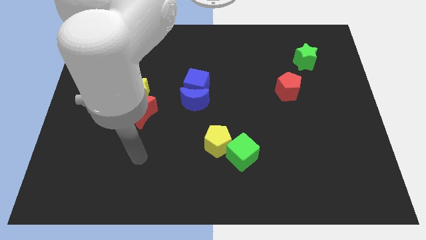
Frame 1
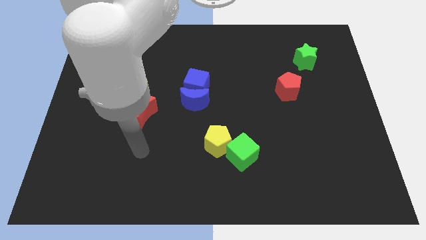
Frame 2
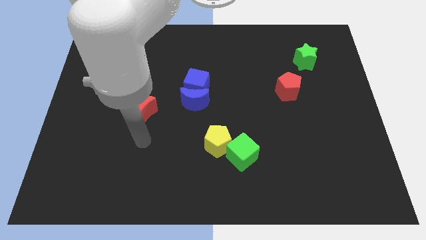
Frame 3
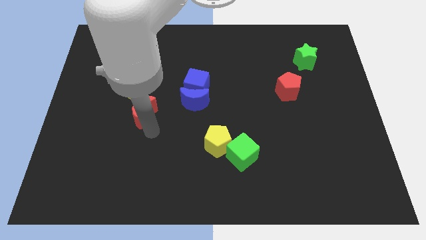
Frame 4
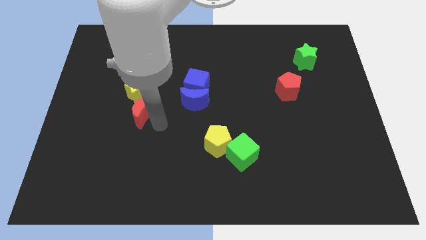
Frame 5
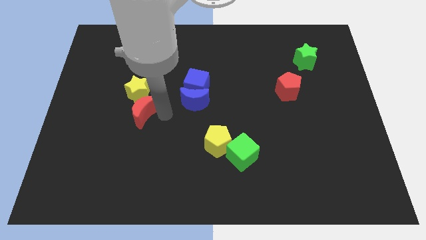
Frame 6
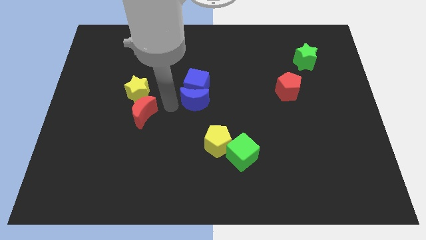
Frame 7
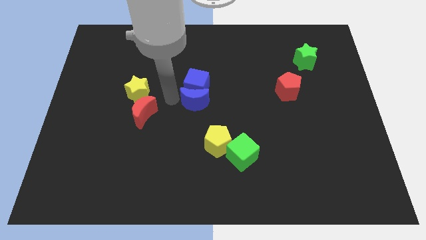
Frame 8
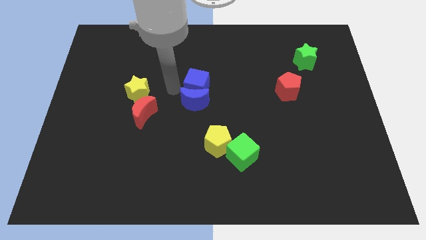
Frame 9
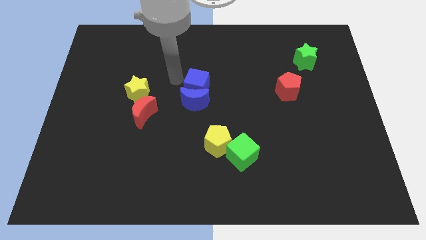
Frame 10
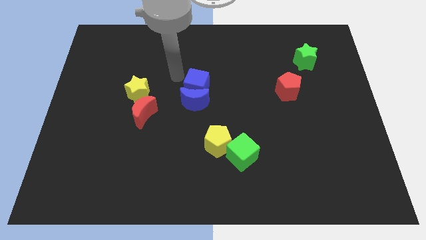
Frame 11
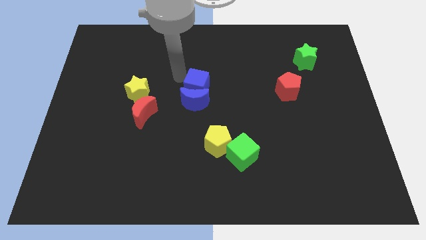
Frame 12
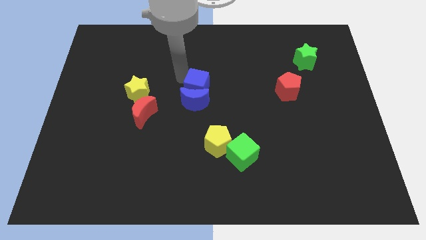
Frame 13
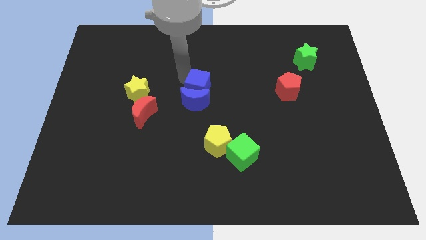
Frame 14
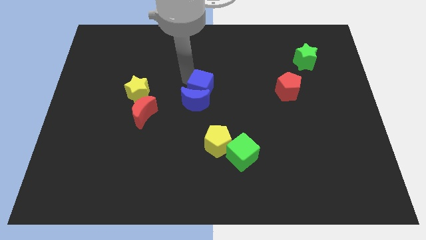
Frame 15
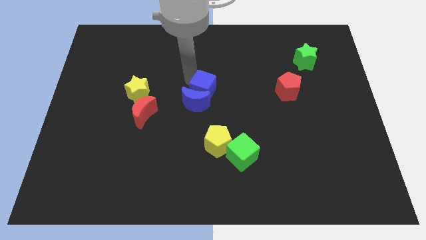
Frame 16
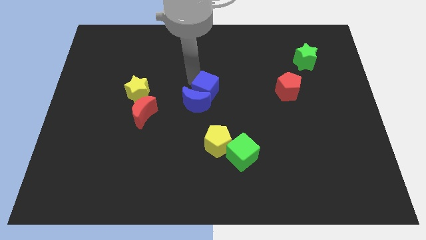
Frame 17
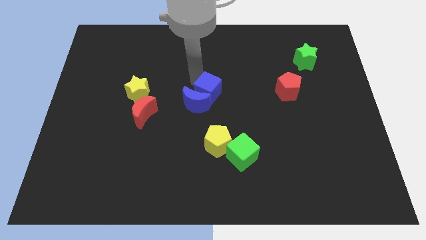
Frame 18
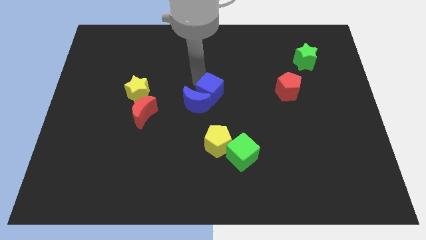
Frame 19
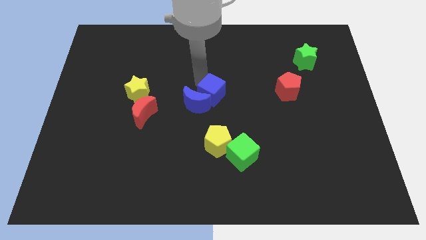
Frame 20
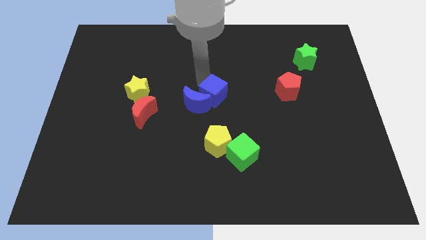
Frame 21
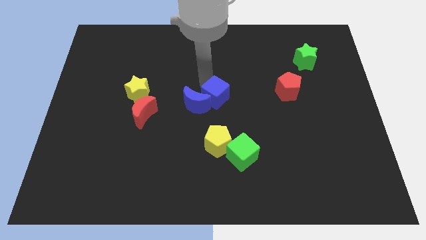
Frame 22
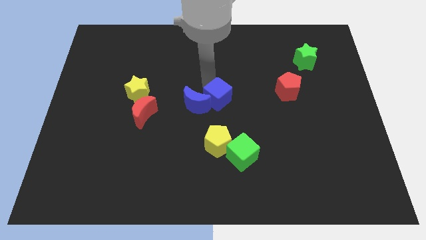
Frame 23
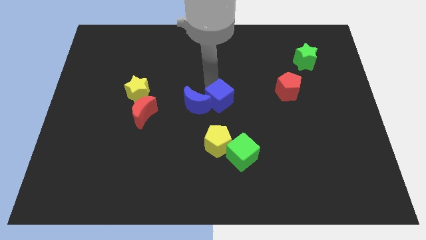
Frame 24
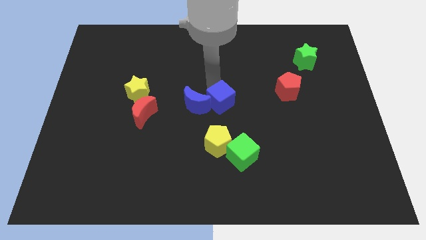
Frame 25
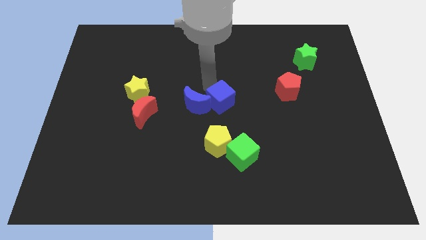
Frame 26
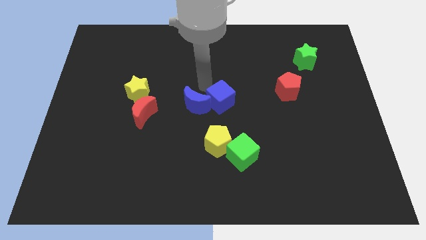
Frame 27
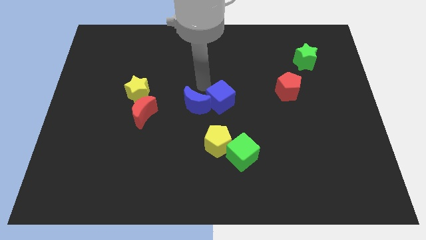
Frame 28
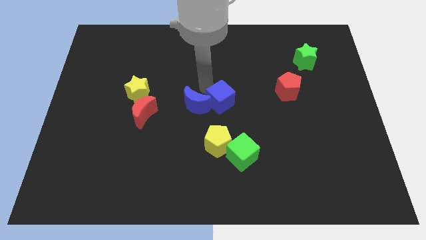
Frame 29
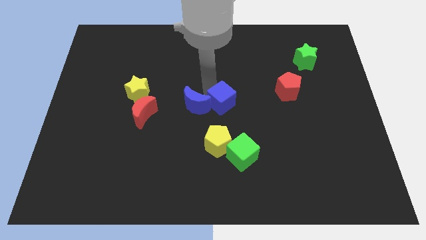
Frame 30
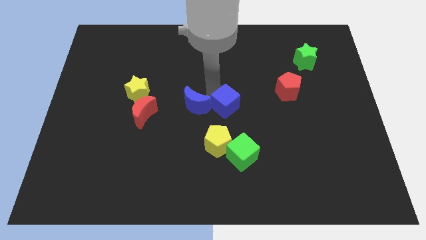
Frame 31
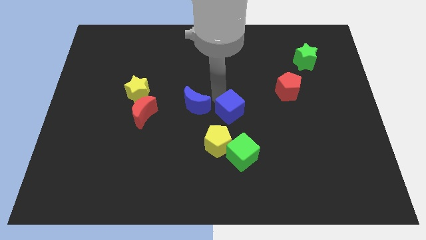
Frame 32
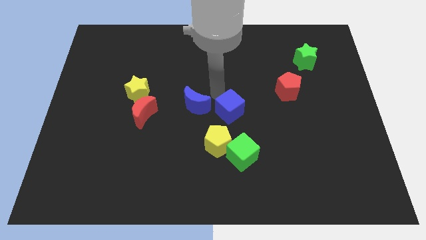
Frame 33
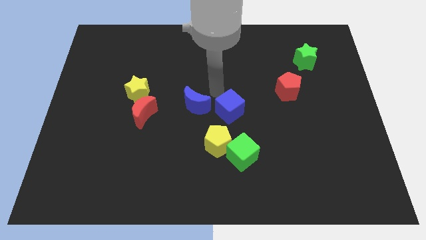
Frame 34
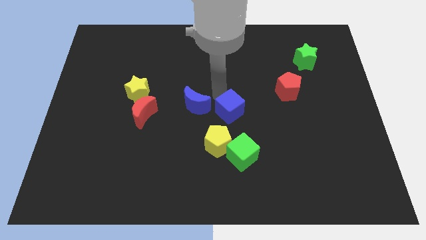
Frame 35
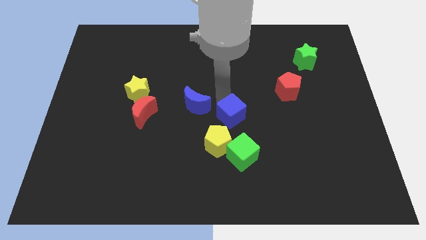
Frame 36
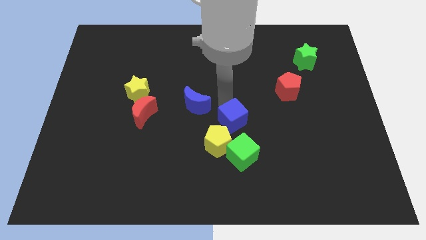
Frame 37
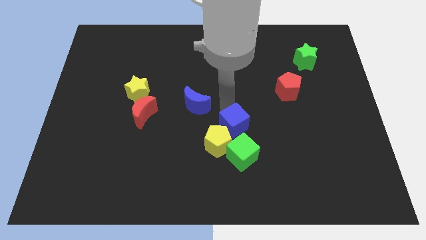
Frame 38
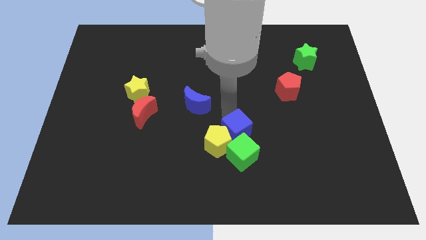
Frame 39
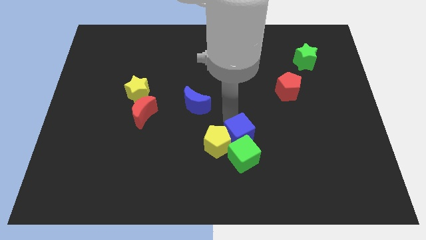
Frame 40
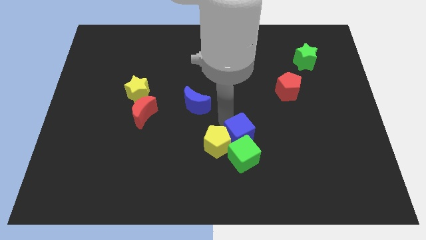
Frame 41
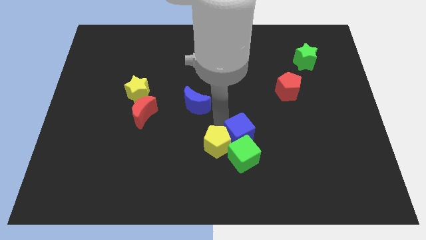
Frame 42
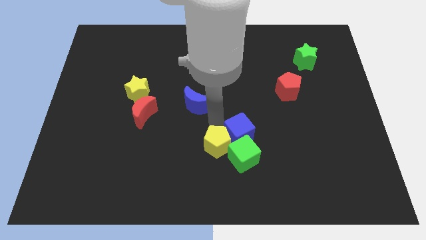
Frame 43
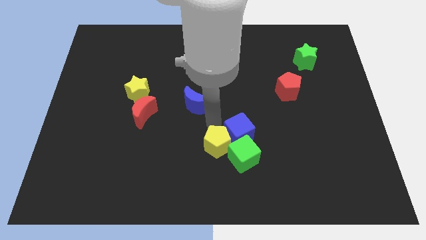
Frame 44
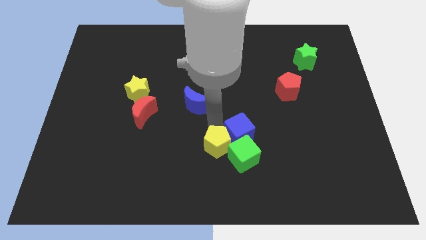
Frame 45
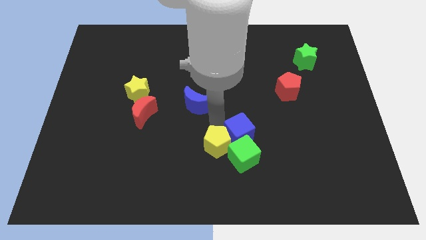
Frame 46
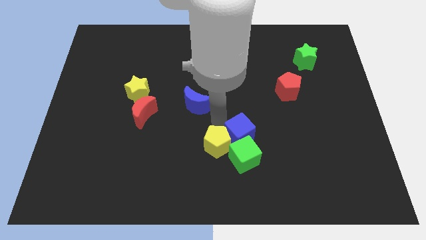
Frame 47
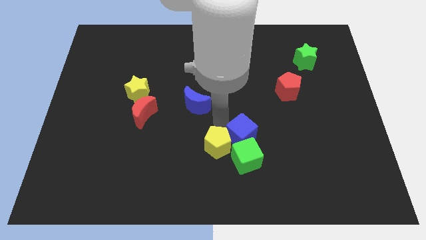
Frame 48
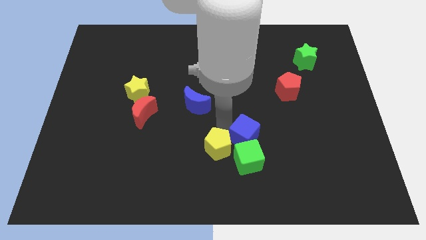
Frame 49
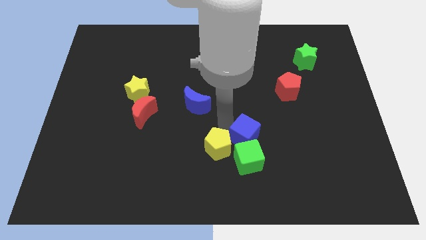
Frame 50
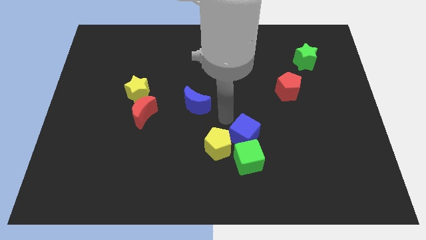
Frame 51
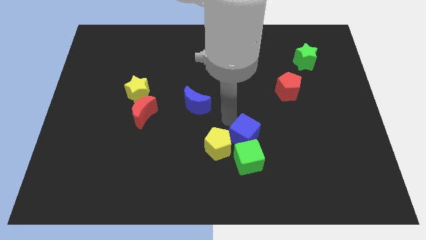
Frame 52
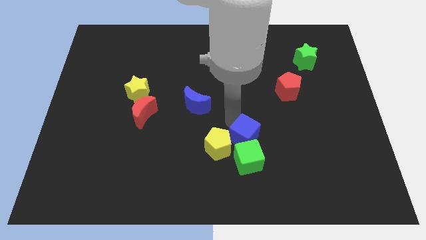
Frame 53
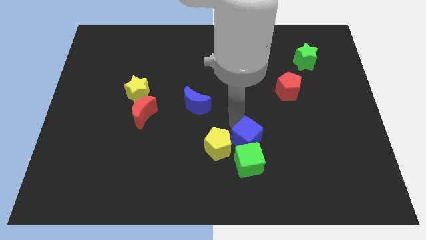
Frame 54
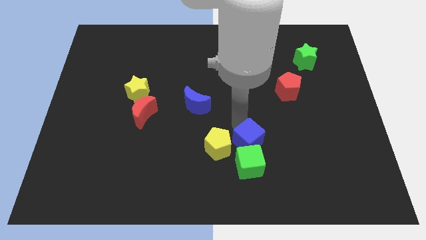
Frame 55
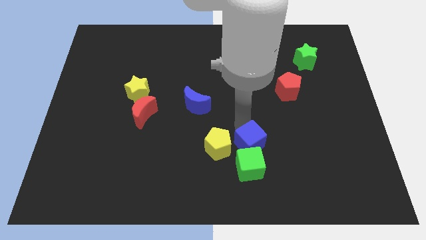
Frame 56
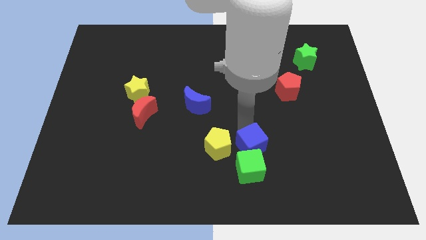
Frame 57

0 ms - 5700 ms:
move the blue cube diagonally downwards and right

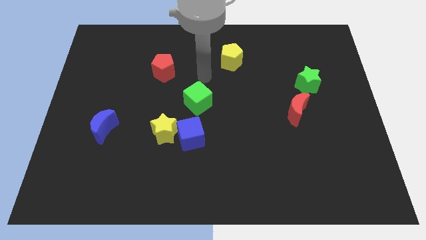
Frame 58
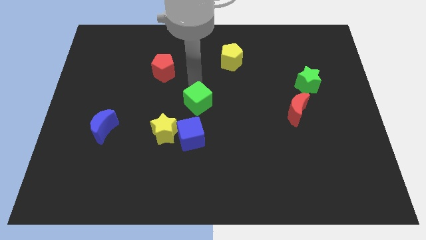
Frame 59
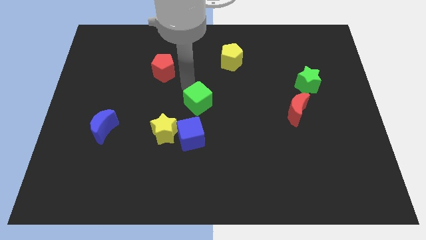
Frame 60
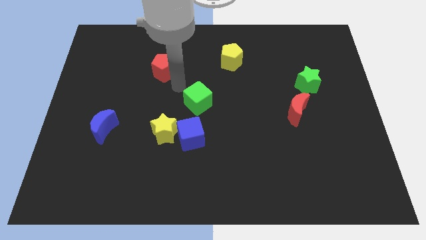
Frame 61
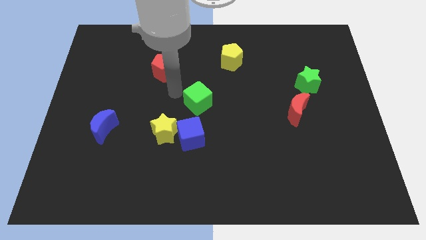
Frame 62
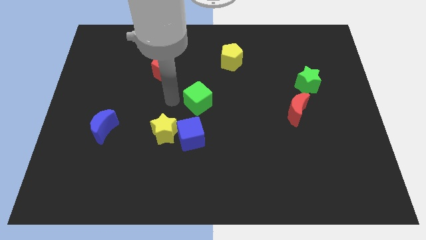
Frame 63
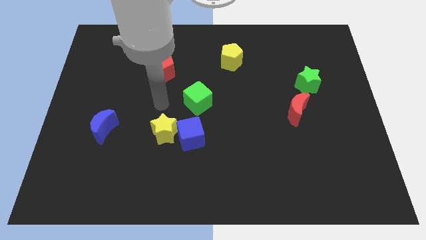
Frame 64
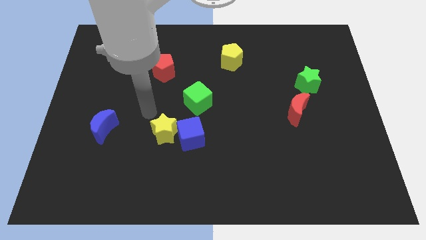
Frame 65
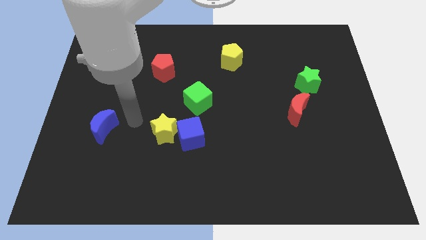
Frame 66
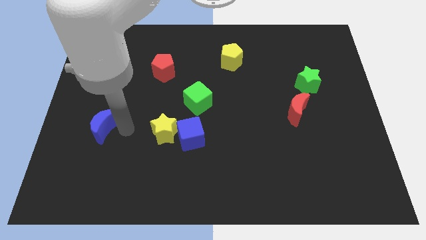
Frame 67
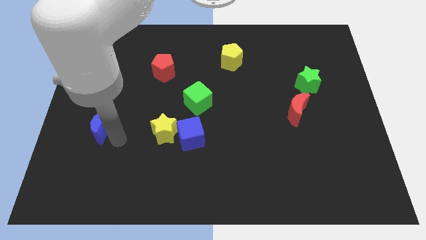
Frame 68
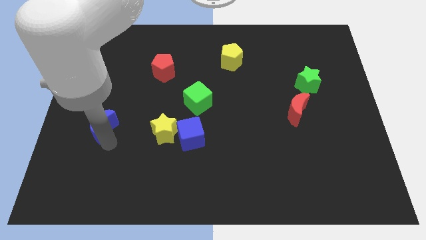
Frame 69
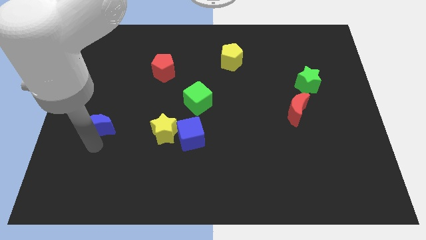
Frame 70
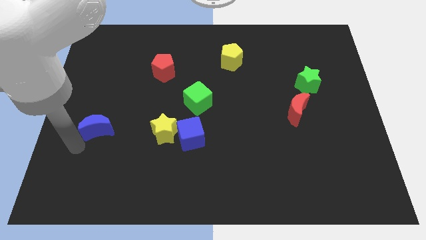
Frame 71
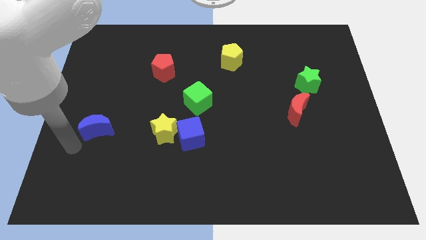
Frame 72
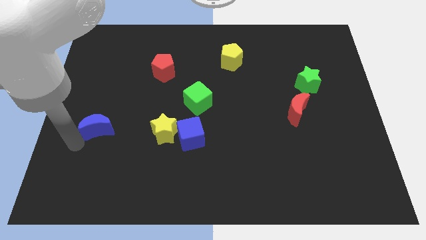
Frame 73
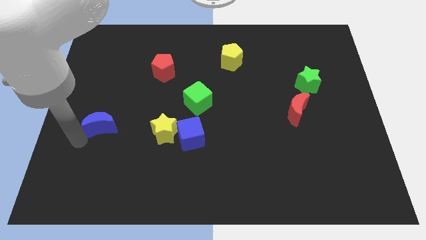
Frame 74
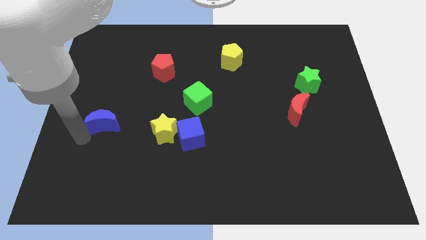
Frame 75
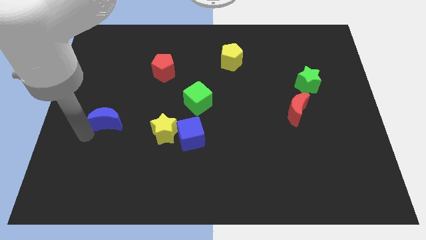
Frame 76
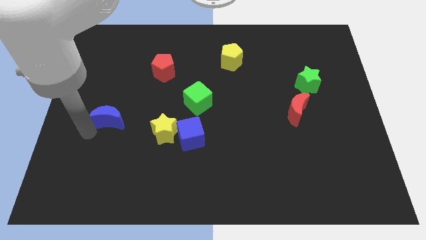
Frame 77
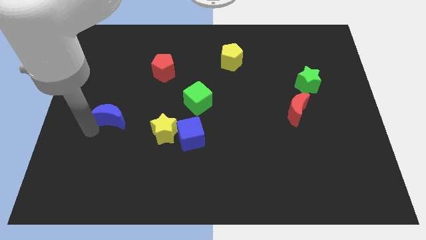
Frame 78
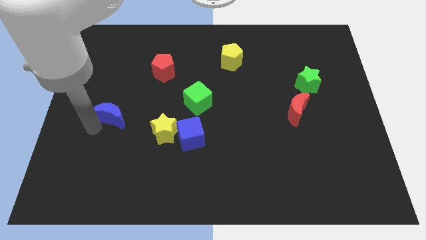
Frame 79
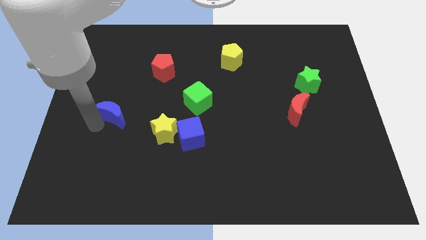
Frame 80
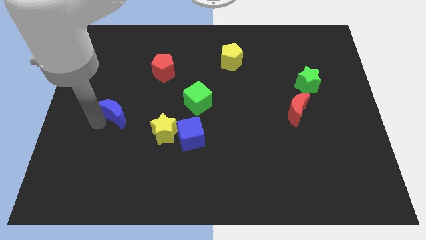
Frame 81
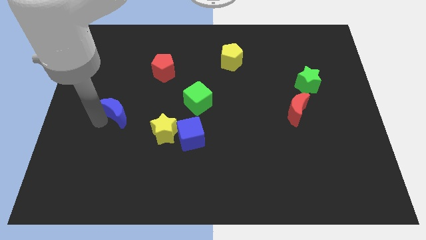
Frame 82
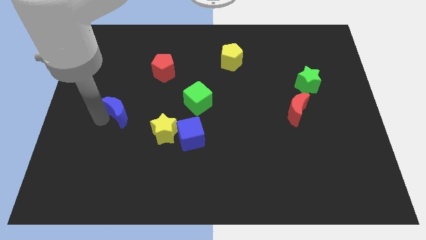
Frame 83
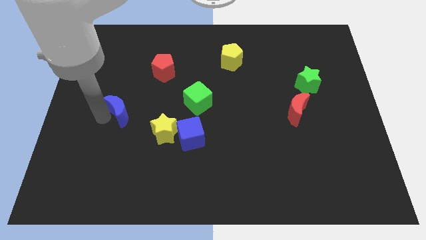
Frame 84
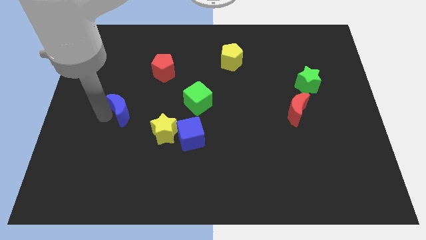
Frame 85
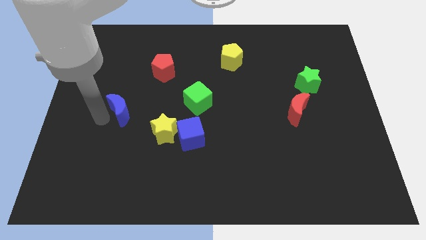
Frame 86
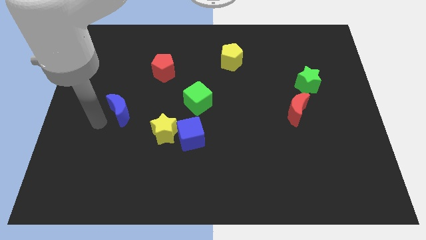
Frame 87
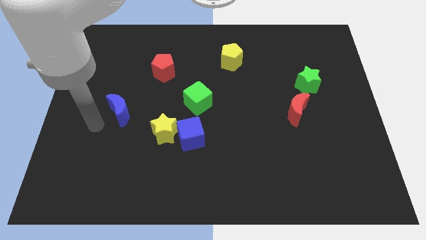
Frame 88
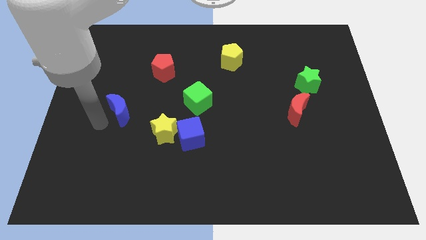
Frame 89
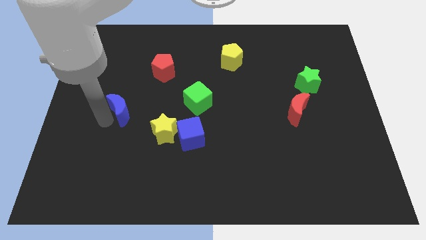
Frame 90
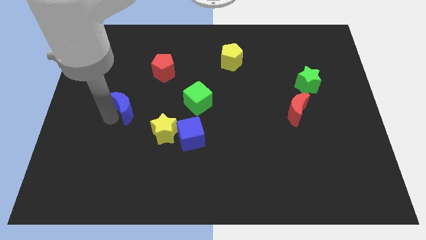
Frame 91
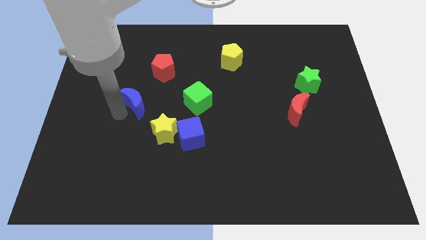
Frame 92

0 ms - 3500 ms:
slightly push the blue moon upwards and right diagonally
